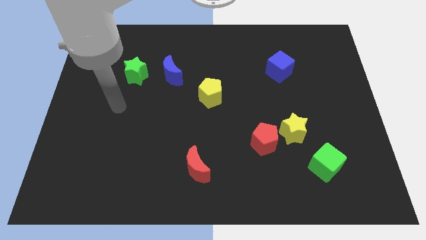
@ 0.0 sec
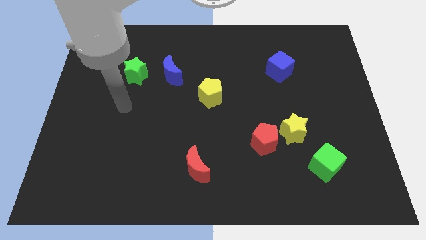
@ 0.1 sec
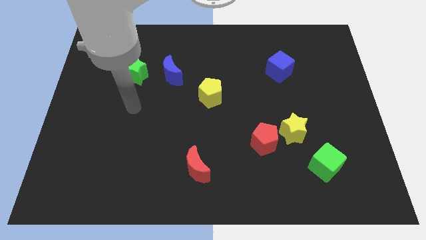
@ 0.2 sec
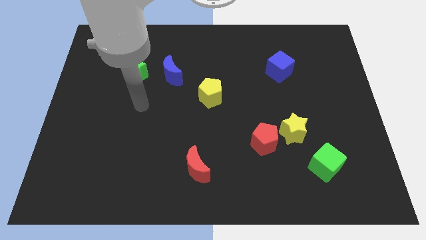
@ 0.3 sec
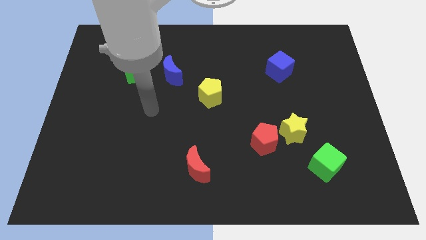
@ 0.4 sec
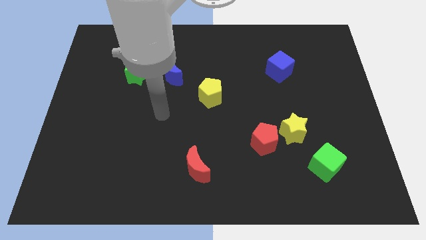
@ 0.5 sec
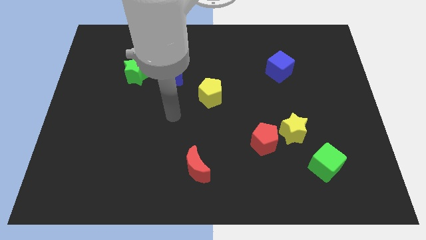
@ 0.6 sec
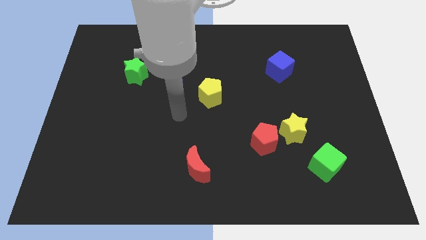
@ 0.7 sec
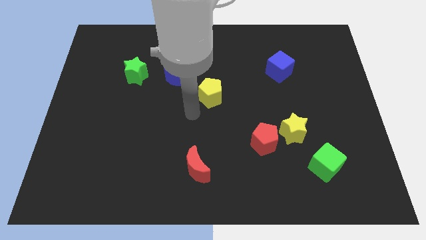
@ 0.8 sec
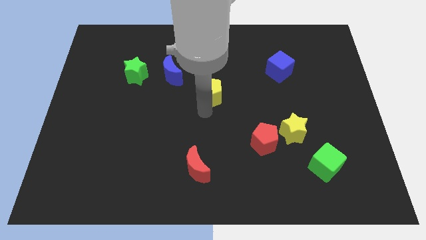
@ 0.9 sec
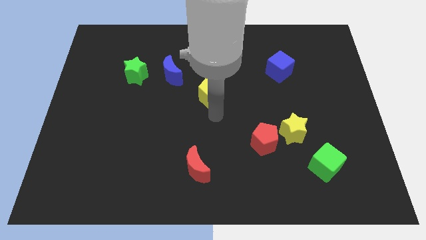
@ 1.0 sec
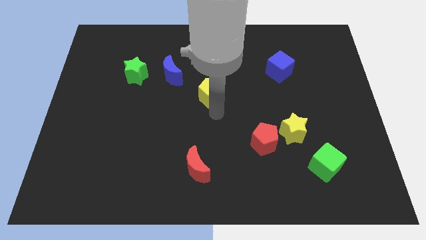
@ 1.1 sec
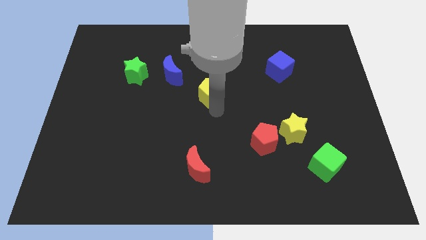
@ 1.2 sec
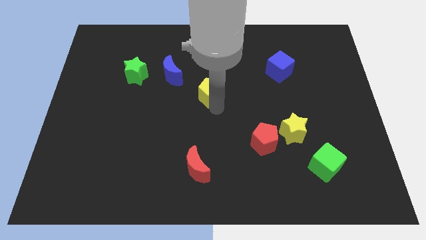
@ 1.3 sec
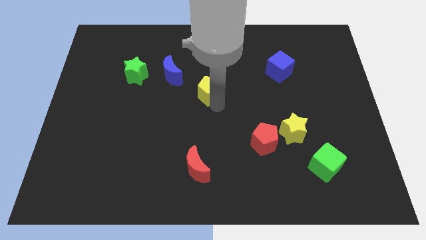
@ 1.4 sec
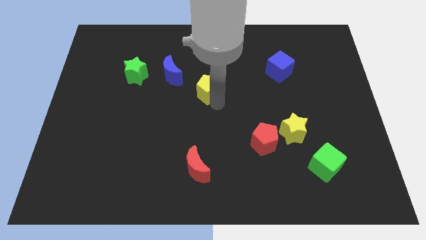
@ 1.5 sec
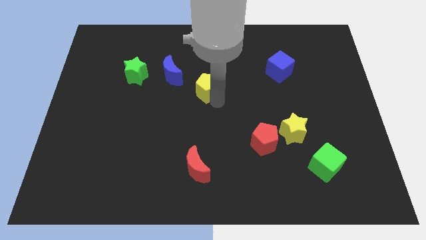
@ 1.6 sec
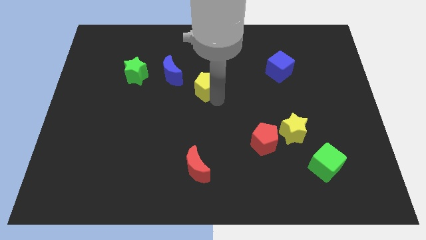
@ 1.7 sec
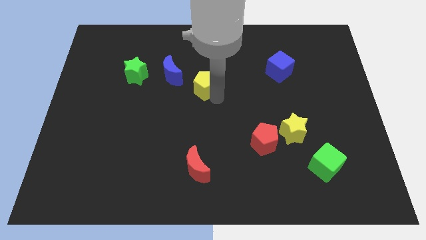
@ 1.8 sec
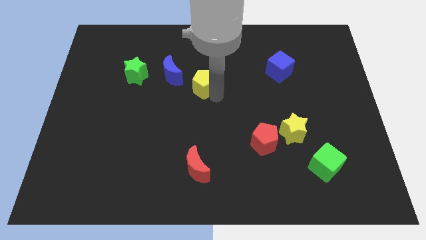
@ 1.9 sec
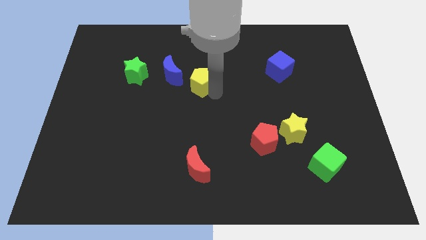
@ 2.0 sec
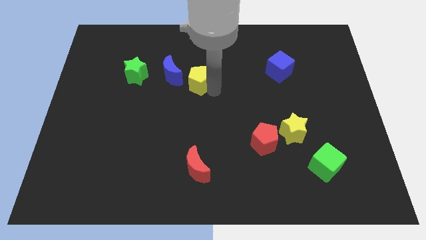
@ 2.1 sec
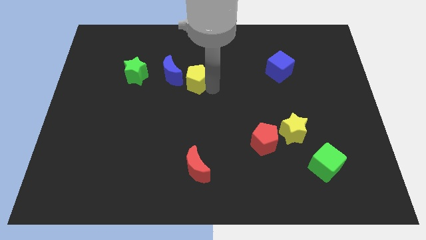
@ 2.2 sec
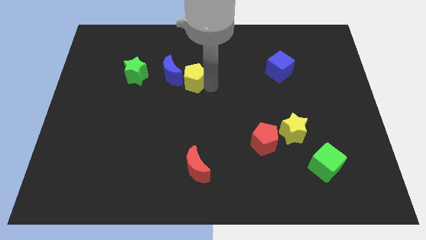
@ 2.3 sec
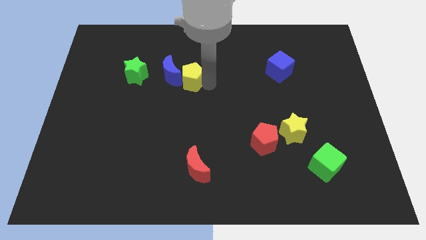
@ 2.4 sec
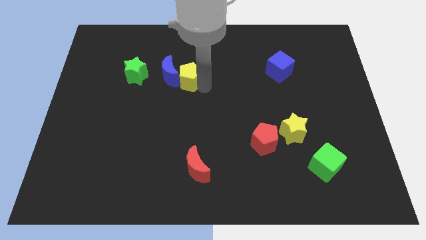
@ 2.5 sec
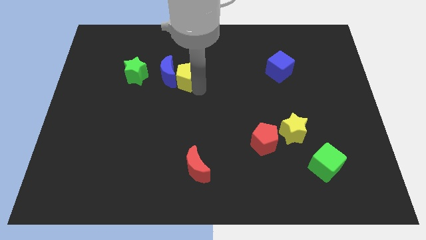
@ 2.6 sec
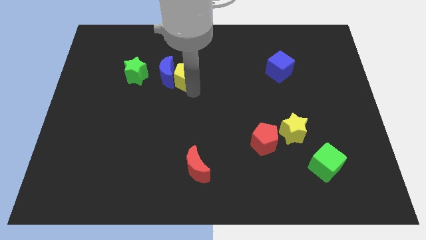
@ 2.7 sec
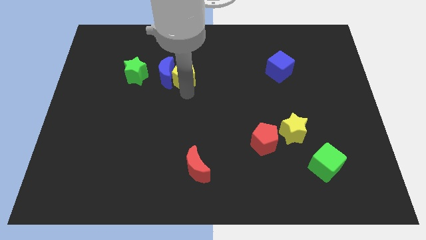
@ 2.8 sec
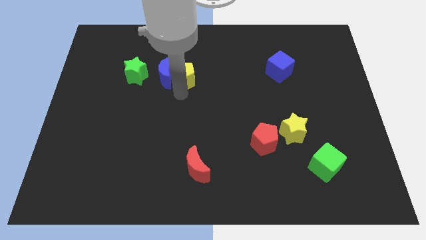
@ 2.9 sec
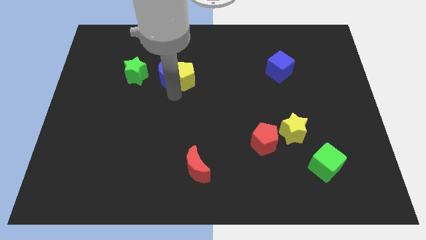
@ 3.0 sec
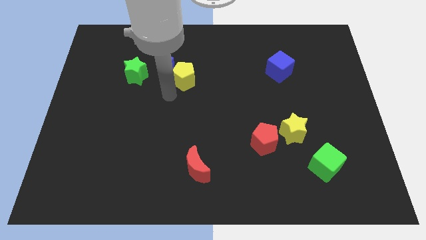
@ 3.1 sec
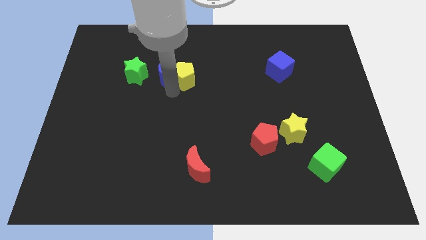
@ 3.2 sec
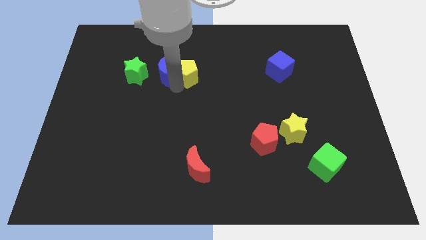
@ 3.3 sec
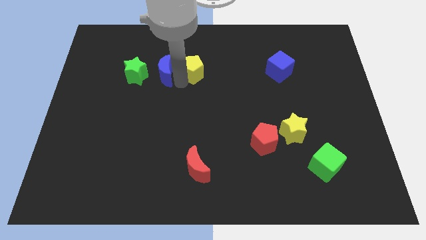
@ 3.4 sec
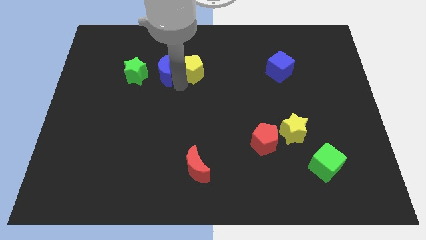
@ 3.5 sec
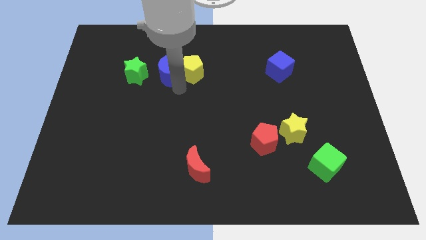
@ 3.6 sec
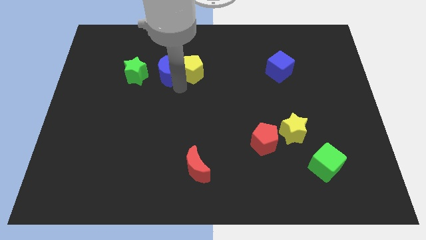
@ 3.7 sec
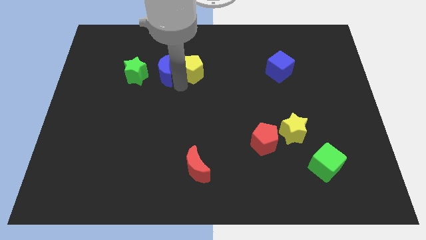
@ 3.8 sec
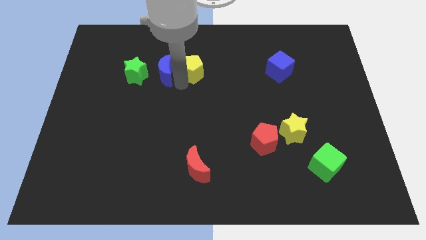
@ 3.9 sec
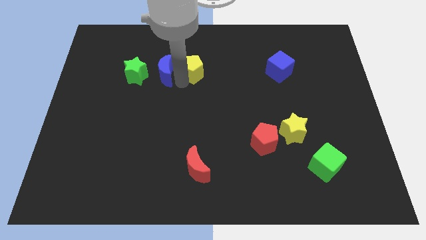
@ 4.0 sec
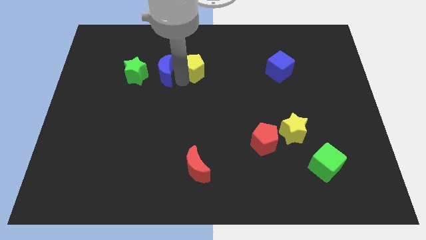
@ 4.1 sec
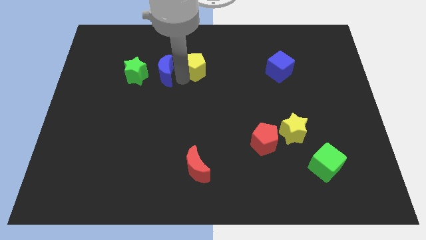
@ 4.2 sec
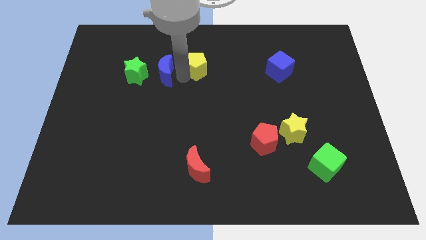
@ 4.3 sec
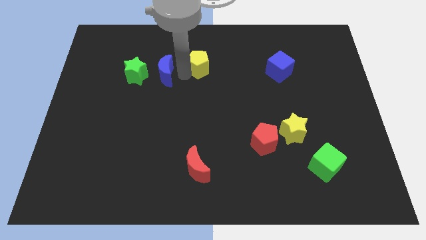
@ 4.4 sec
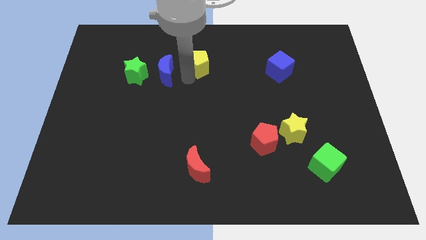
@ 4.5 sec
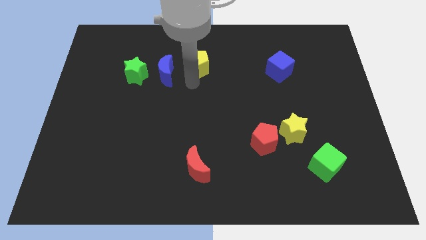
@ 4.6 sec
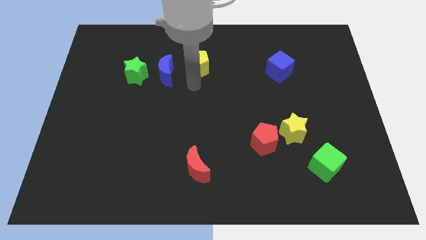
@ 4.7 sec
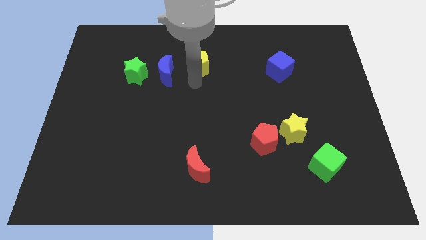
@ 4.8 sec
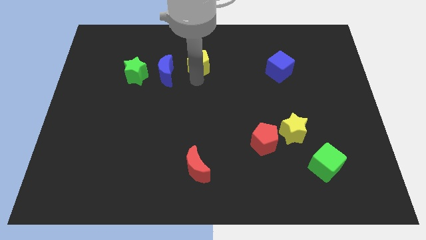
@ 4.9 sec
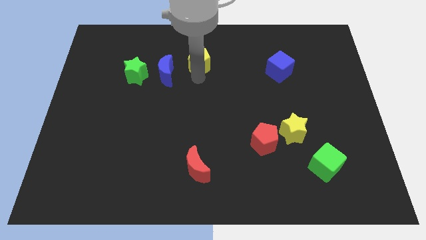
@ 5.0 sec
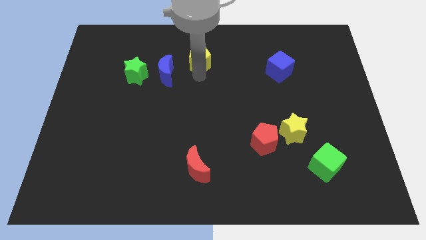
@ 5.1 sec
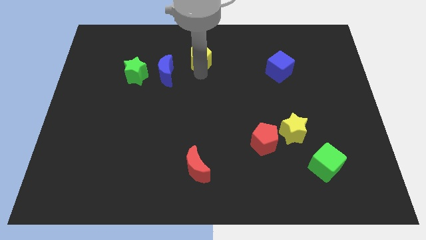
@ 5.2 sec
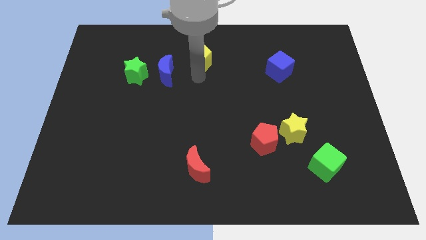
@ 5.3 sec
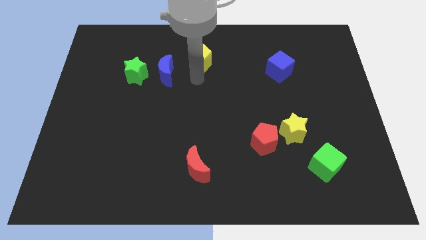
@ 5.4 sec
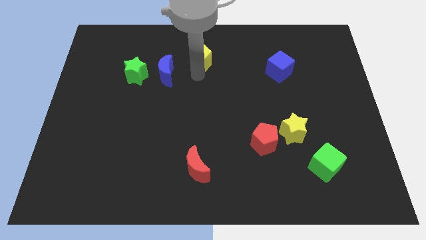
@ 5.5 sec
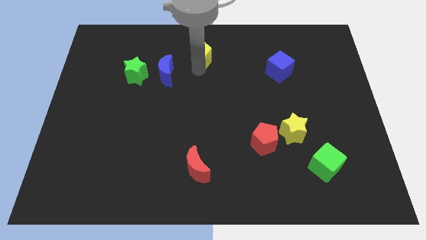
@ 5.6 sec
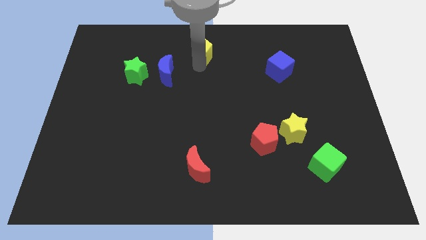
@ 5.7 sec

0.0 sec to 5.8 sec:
move the yellow pentagon to the top side

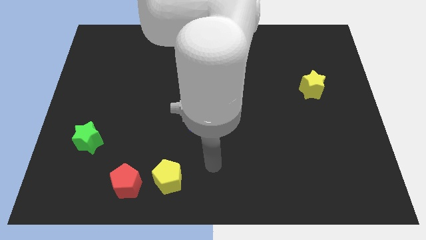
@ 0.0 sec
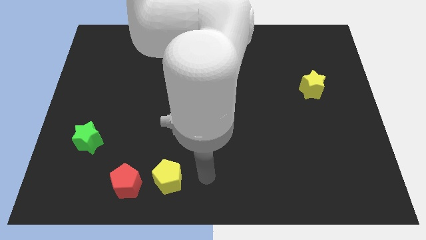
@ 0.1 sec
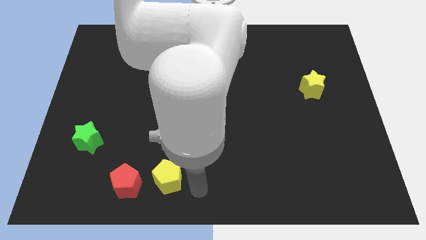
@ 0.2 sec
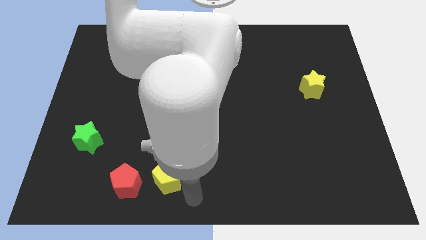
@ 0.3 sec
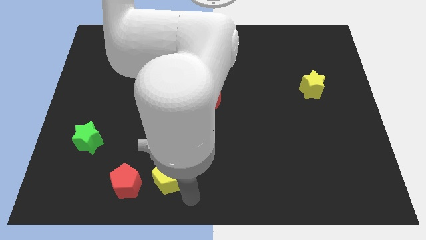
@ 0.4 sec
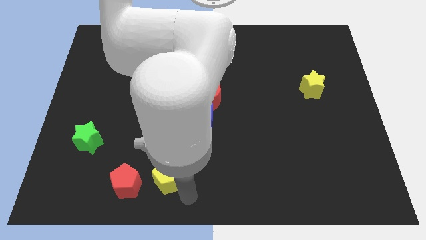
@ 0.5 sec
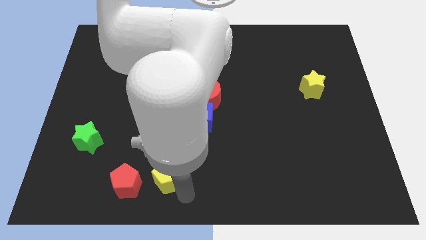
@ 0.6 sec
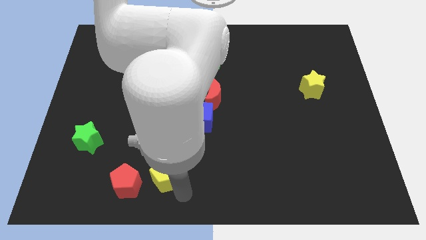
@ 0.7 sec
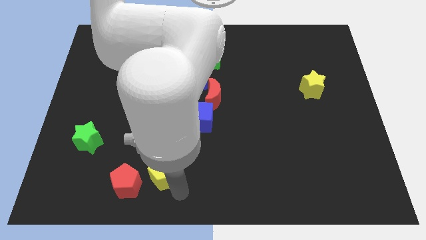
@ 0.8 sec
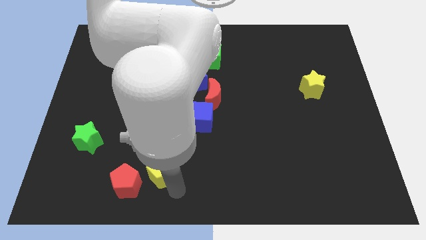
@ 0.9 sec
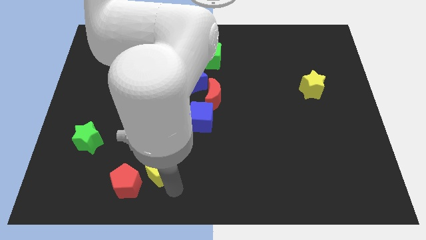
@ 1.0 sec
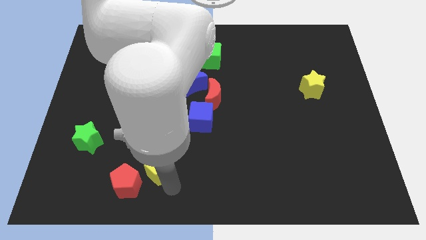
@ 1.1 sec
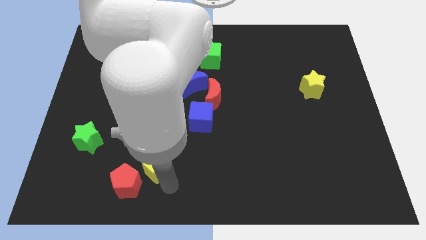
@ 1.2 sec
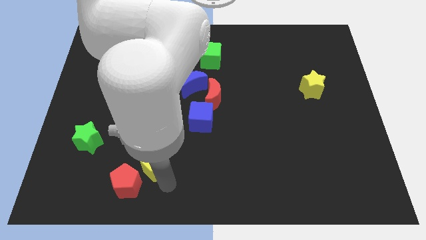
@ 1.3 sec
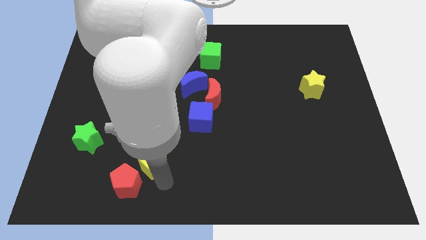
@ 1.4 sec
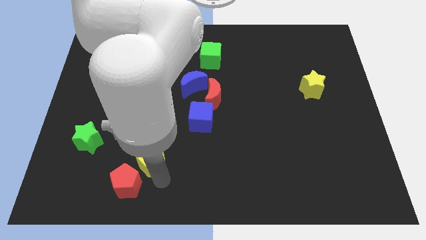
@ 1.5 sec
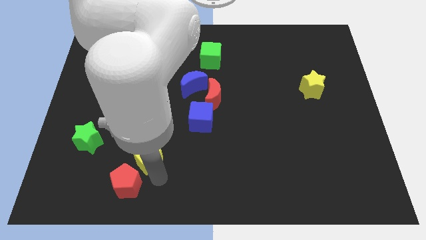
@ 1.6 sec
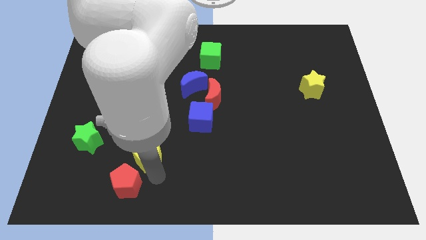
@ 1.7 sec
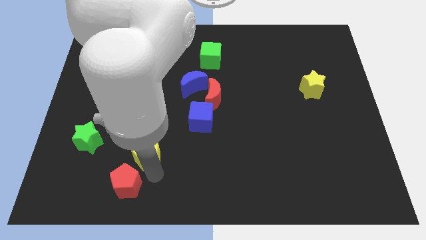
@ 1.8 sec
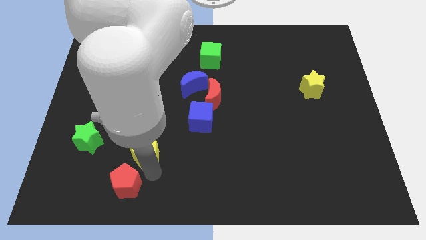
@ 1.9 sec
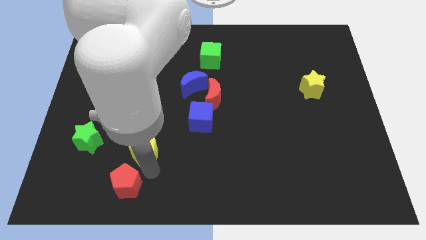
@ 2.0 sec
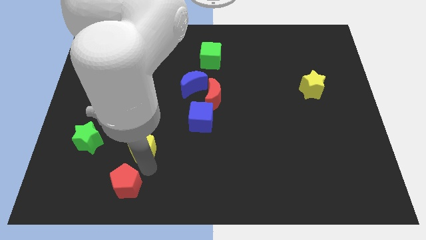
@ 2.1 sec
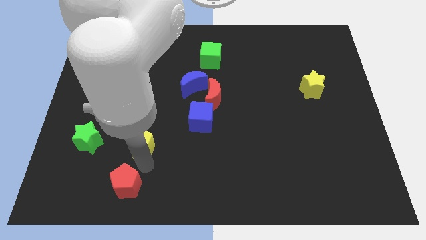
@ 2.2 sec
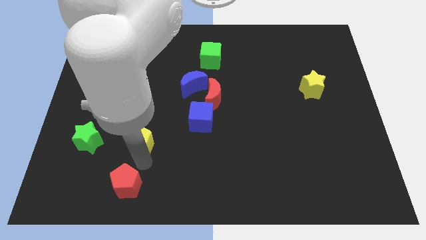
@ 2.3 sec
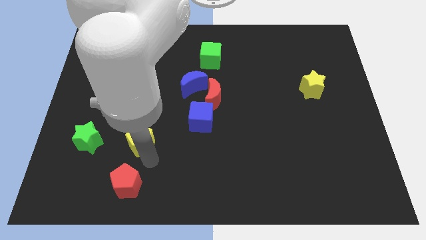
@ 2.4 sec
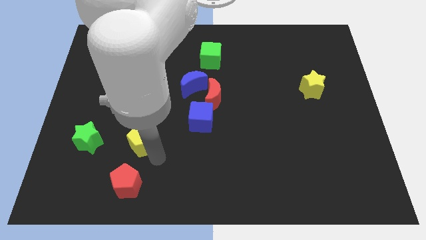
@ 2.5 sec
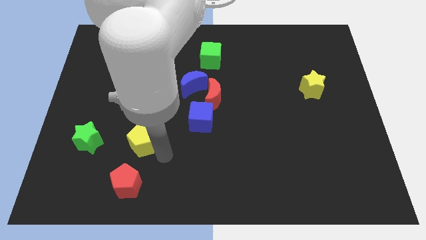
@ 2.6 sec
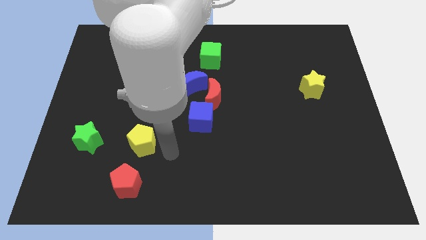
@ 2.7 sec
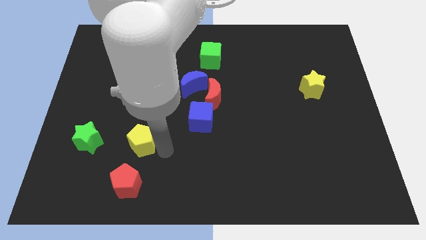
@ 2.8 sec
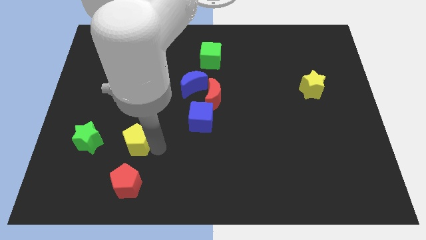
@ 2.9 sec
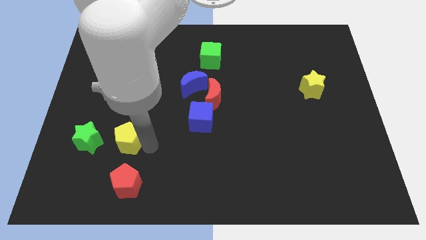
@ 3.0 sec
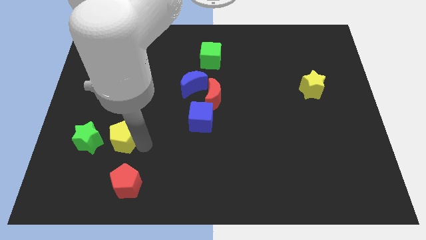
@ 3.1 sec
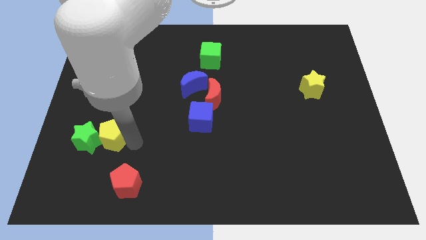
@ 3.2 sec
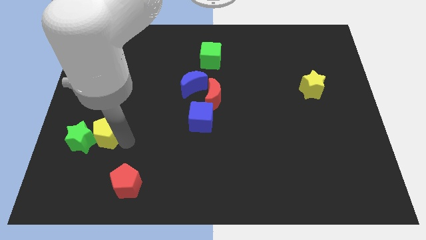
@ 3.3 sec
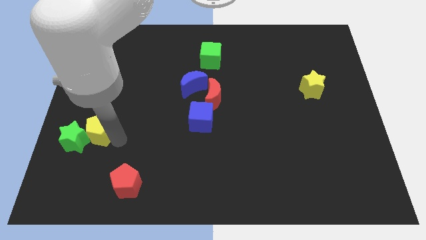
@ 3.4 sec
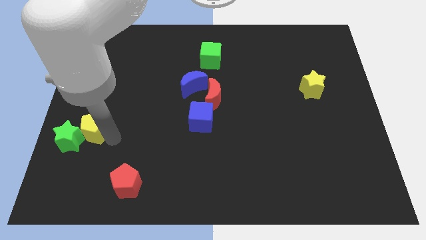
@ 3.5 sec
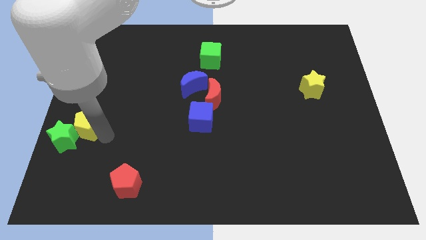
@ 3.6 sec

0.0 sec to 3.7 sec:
put the yellow pentagon to the center left
